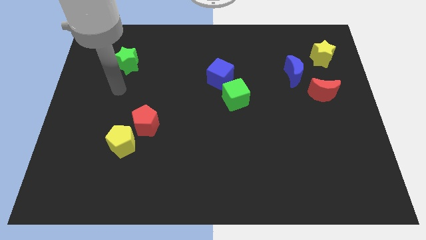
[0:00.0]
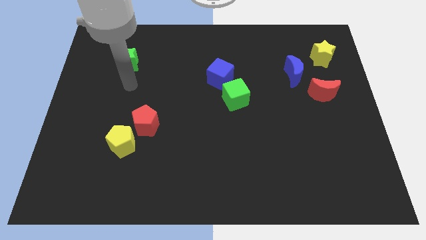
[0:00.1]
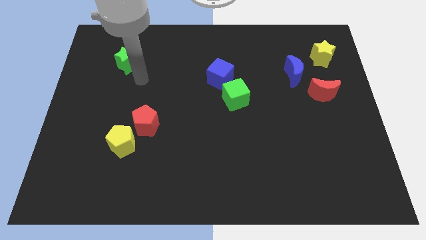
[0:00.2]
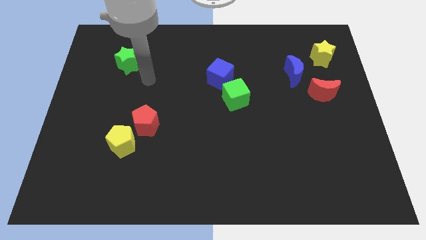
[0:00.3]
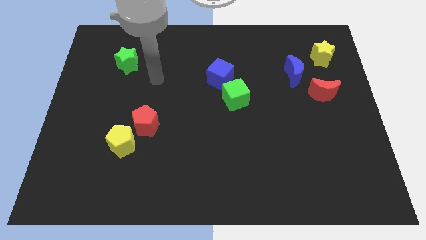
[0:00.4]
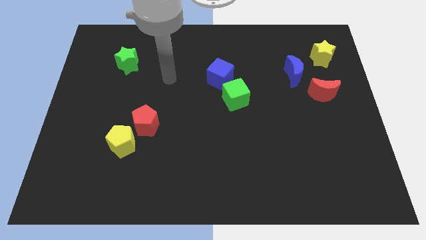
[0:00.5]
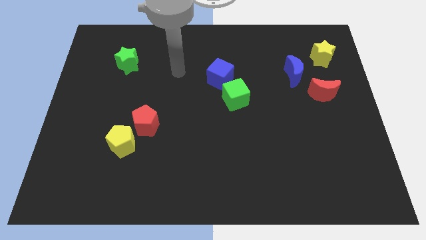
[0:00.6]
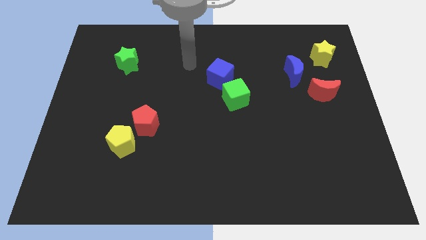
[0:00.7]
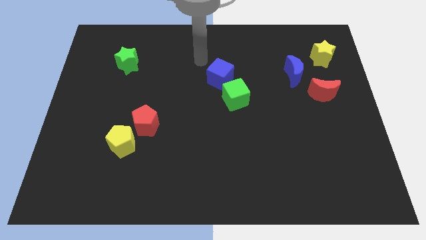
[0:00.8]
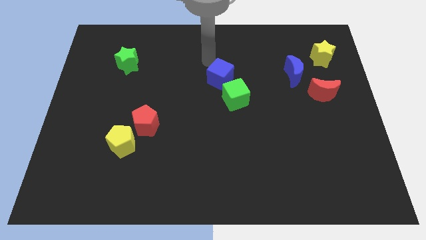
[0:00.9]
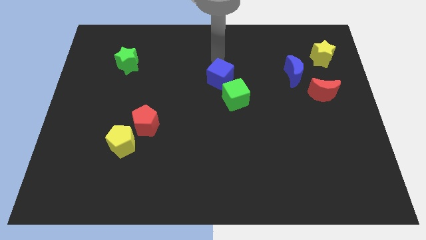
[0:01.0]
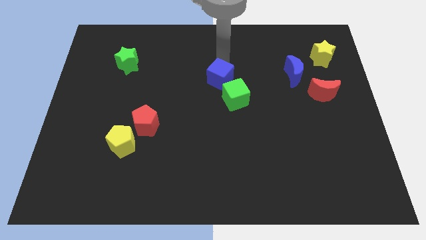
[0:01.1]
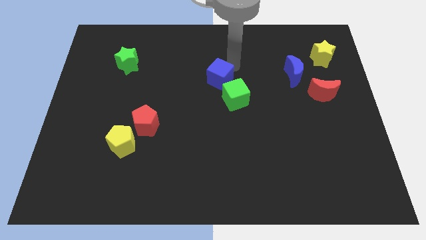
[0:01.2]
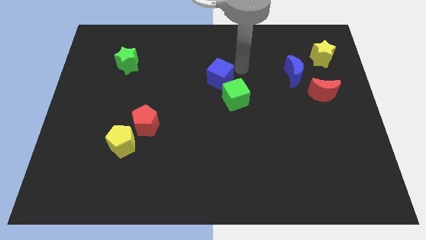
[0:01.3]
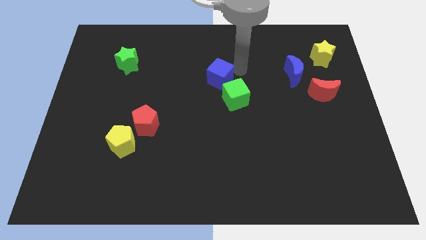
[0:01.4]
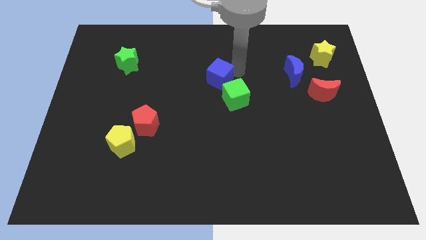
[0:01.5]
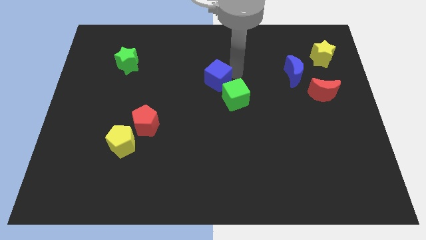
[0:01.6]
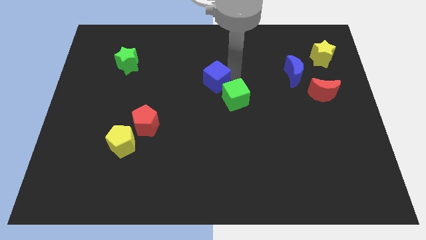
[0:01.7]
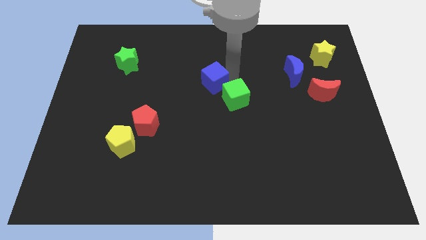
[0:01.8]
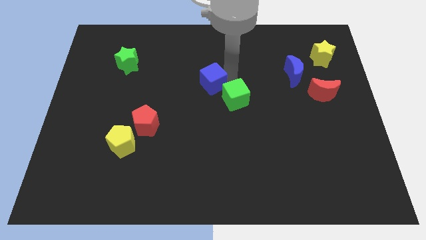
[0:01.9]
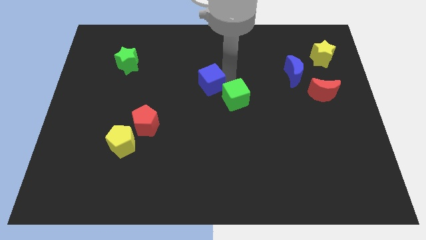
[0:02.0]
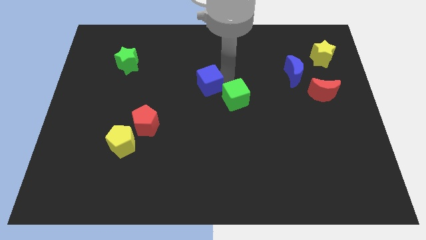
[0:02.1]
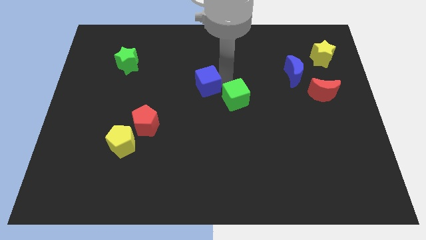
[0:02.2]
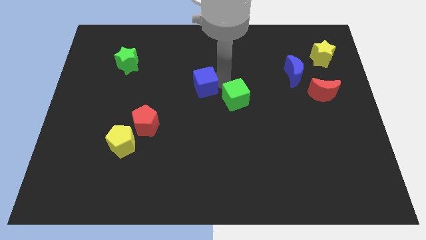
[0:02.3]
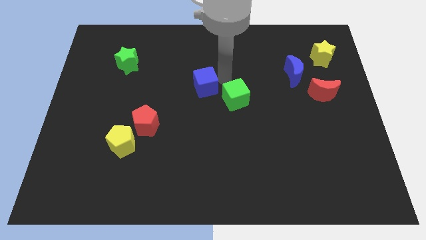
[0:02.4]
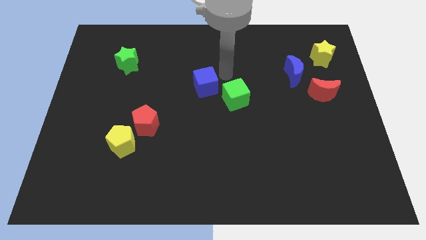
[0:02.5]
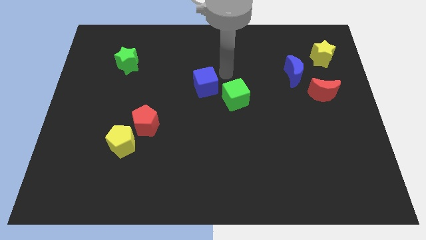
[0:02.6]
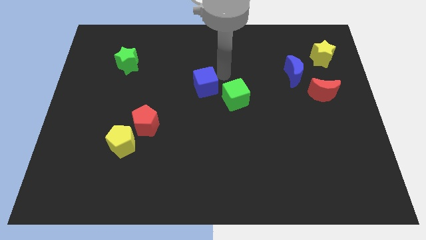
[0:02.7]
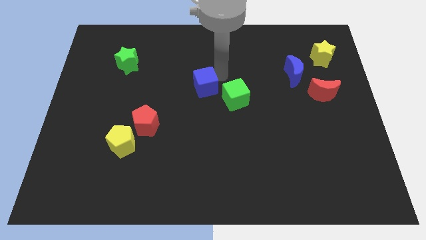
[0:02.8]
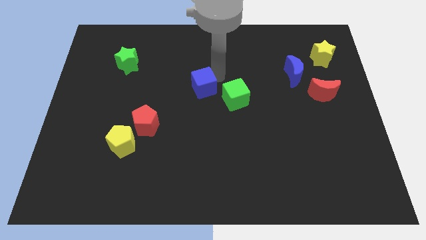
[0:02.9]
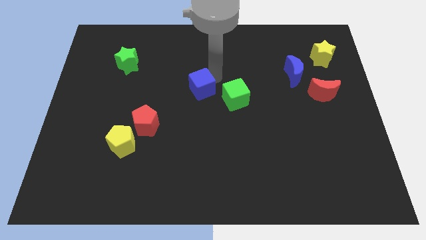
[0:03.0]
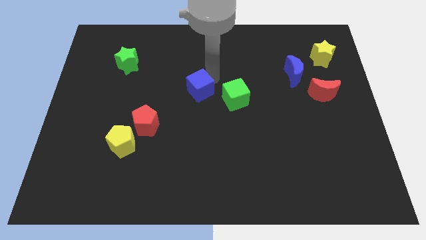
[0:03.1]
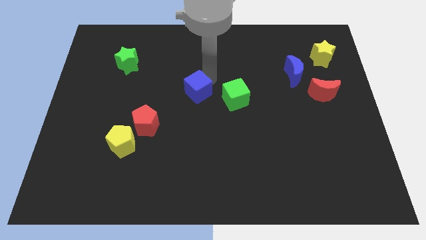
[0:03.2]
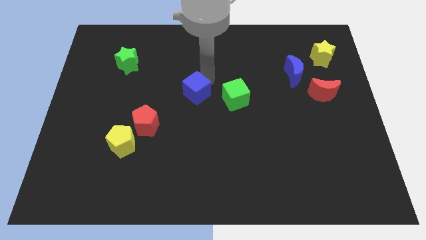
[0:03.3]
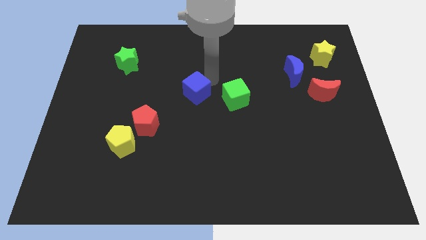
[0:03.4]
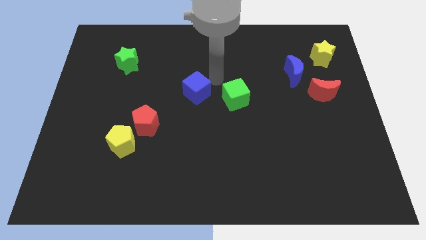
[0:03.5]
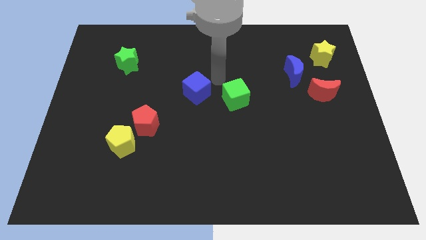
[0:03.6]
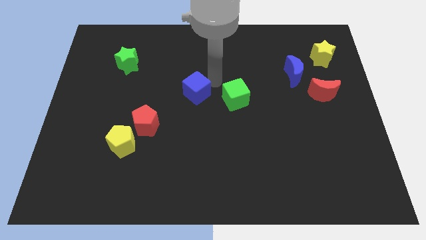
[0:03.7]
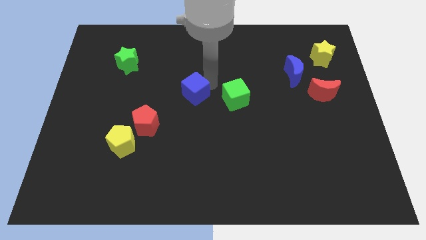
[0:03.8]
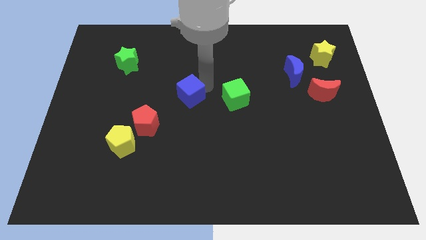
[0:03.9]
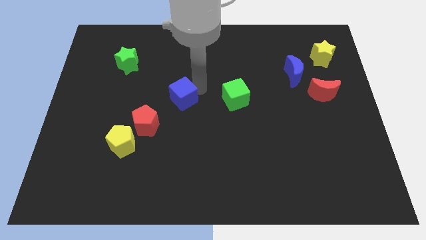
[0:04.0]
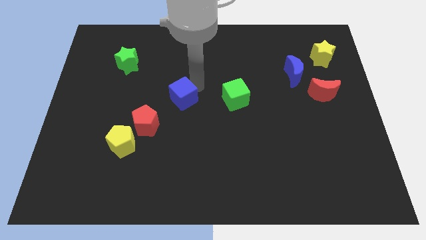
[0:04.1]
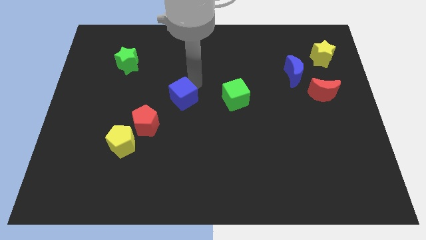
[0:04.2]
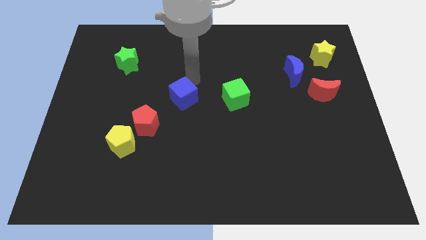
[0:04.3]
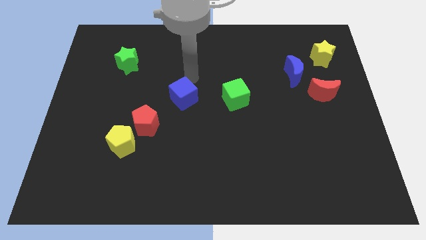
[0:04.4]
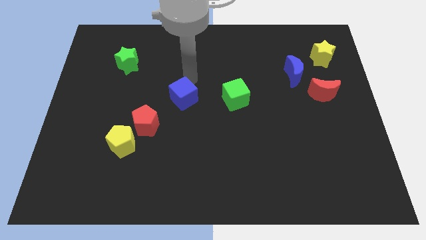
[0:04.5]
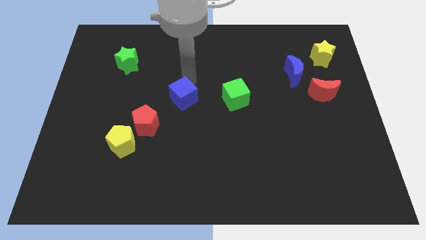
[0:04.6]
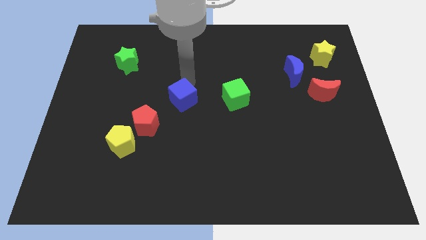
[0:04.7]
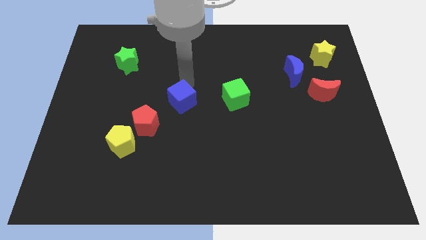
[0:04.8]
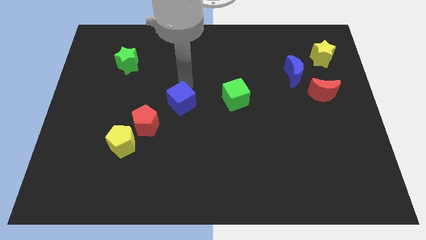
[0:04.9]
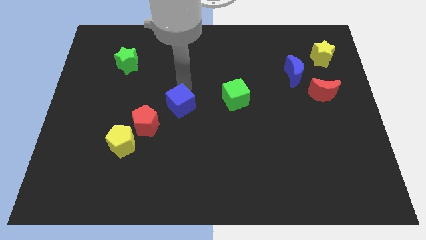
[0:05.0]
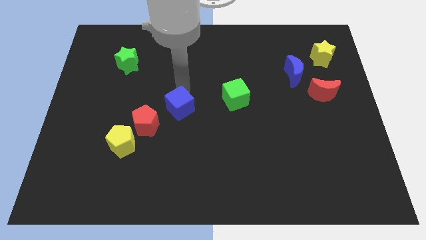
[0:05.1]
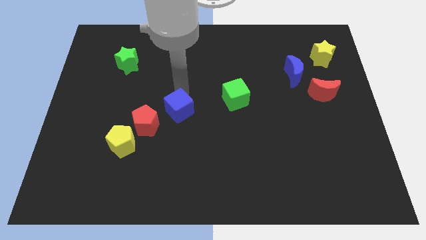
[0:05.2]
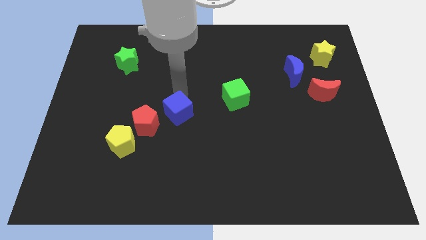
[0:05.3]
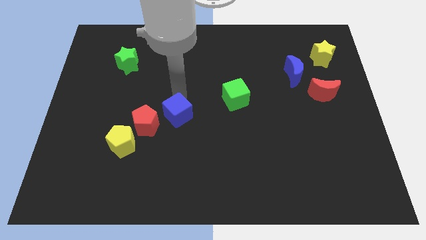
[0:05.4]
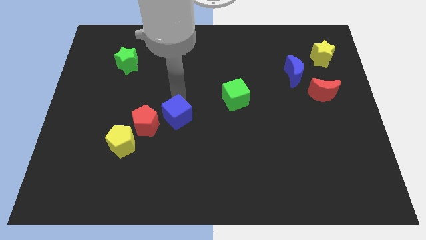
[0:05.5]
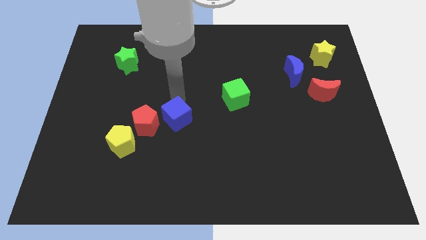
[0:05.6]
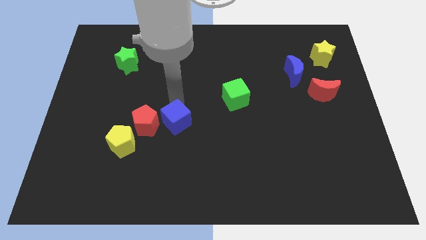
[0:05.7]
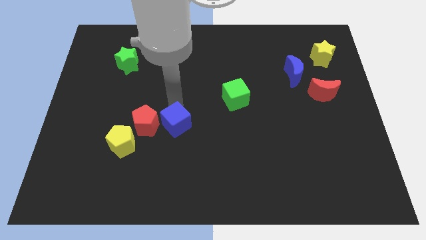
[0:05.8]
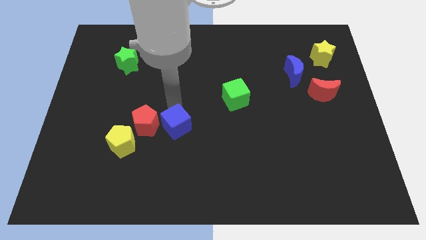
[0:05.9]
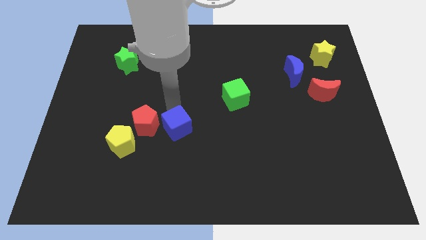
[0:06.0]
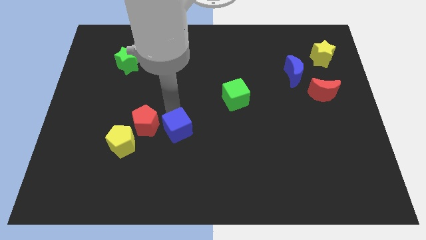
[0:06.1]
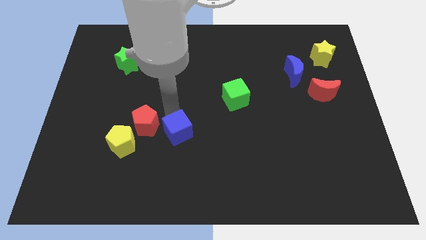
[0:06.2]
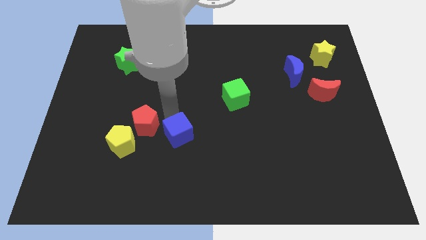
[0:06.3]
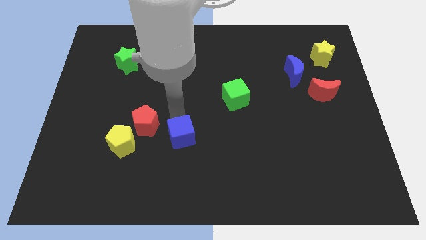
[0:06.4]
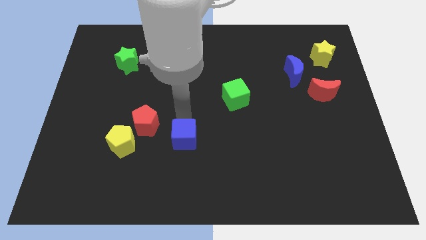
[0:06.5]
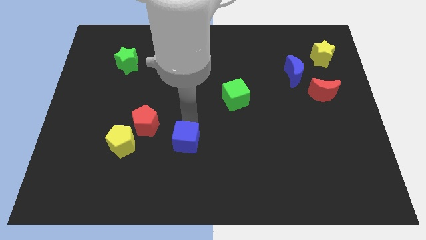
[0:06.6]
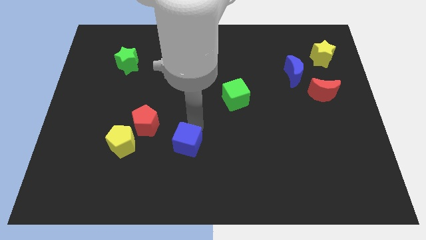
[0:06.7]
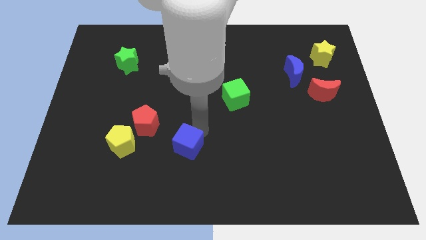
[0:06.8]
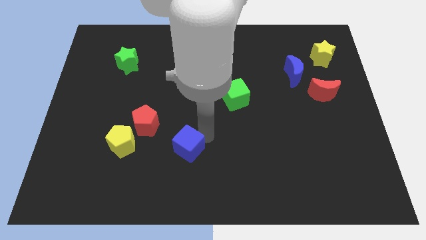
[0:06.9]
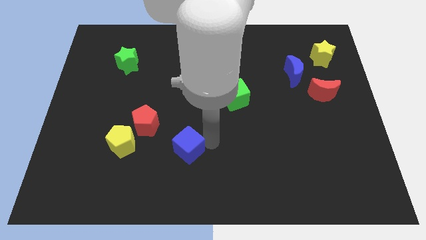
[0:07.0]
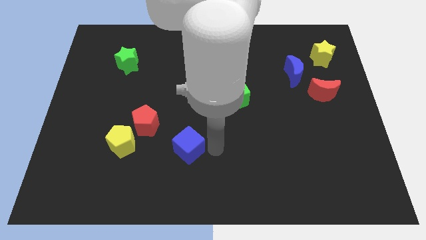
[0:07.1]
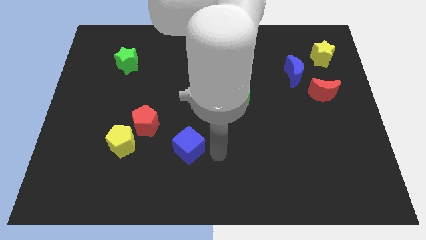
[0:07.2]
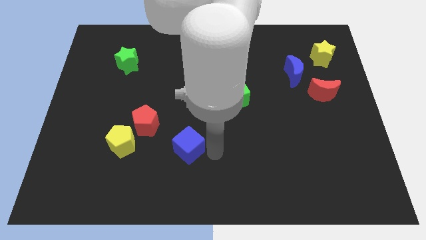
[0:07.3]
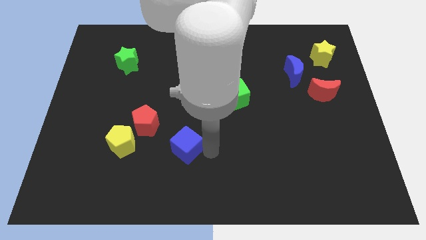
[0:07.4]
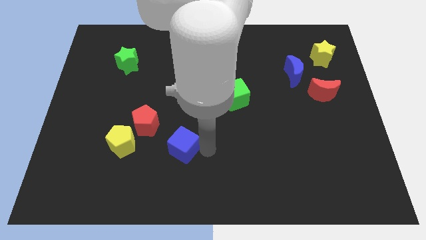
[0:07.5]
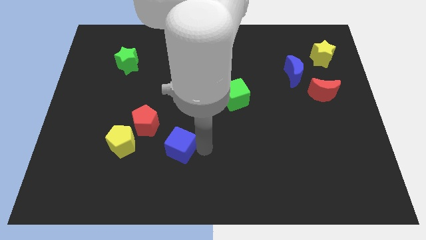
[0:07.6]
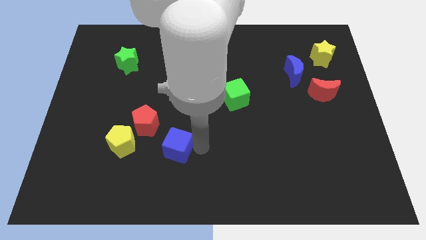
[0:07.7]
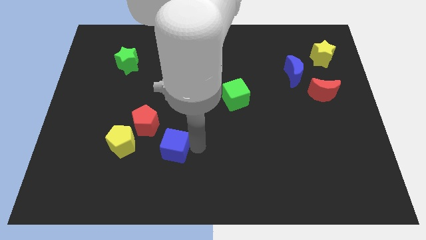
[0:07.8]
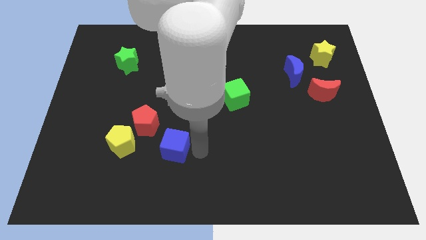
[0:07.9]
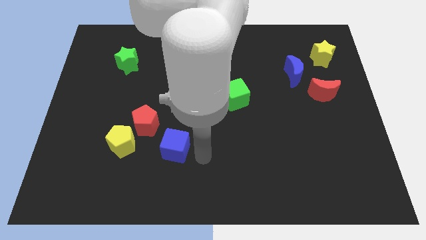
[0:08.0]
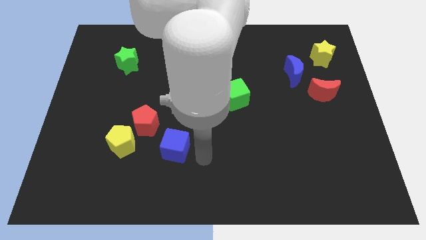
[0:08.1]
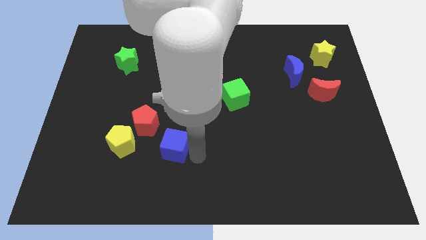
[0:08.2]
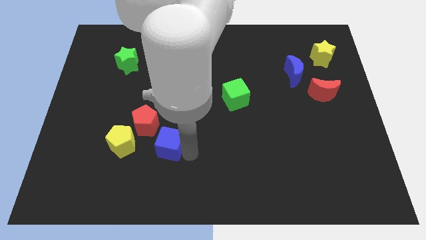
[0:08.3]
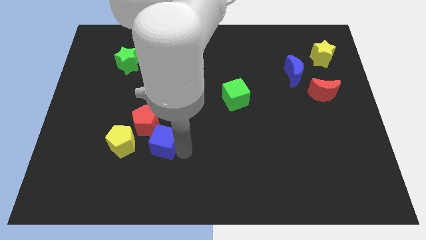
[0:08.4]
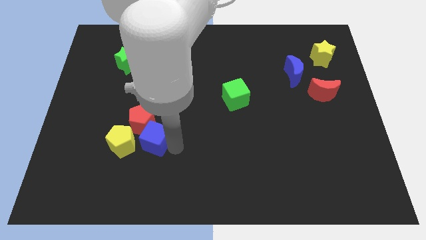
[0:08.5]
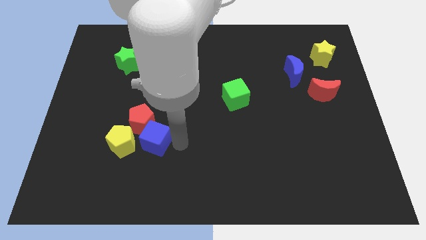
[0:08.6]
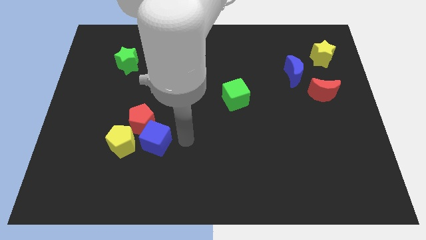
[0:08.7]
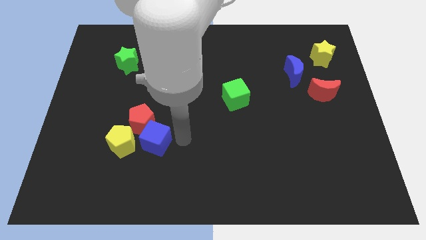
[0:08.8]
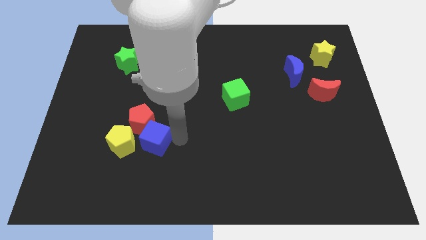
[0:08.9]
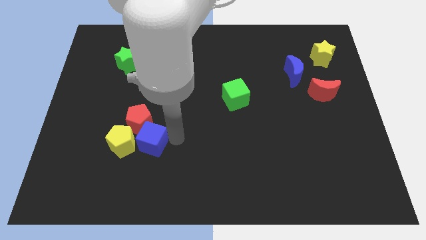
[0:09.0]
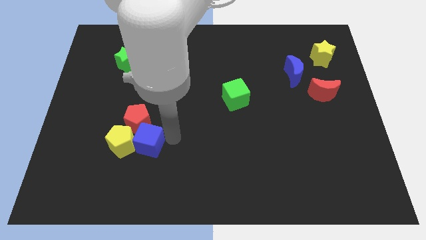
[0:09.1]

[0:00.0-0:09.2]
push the blue cube to the yellow pentagon
